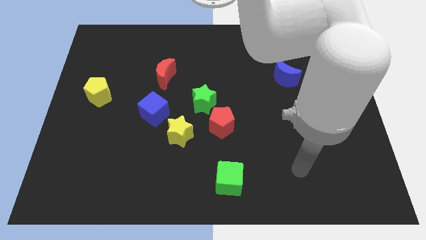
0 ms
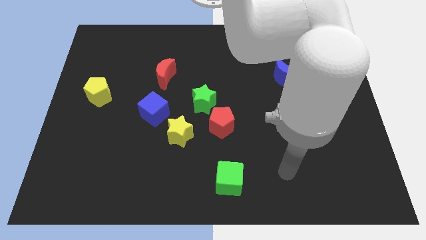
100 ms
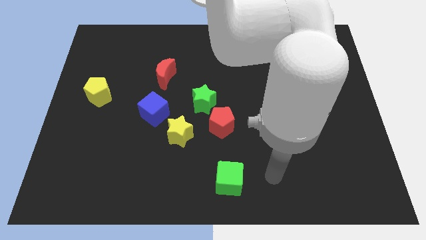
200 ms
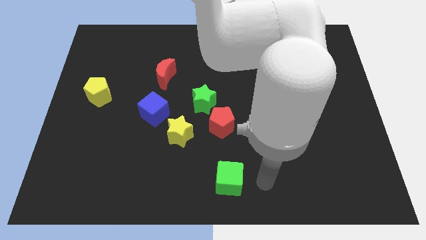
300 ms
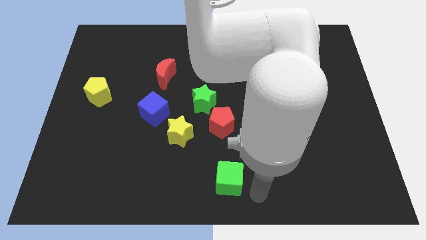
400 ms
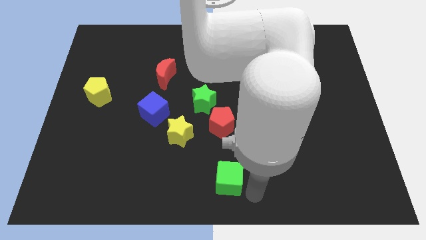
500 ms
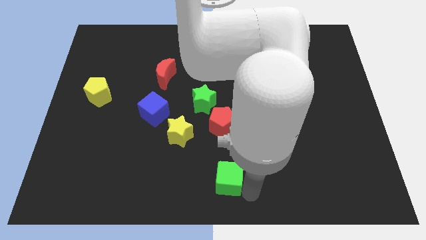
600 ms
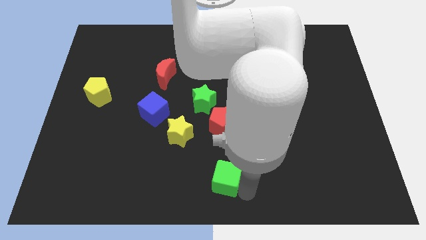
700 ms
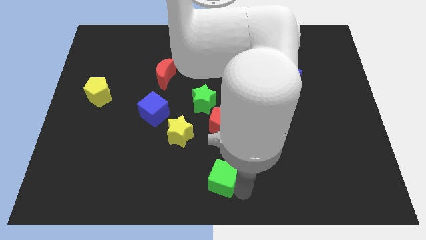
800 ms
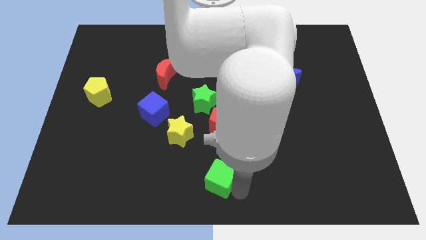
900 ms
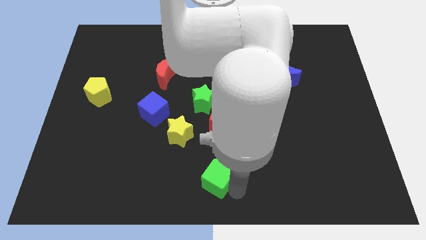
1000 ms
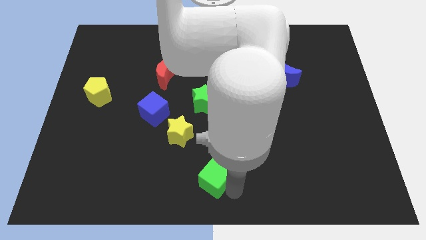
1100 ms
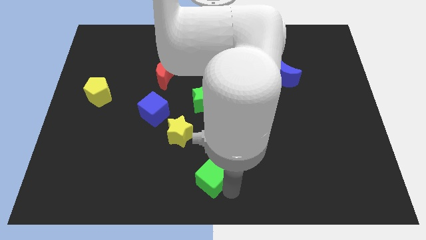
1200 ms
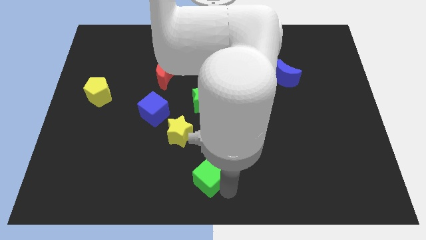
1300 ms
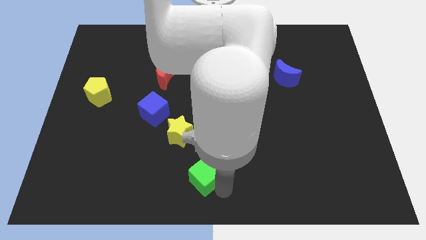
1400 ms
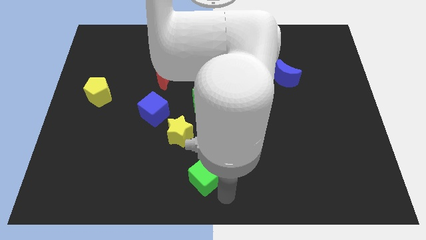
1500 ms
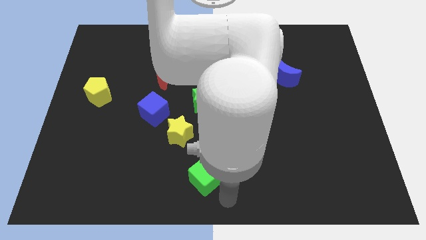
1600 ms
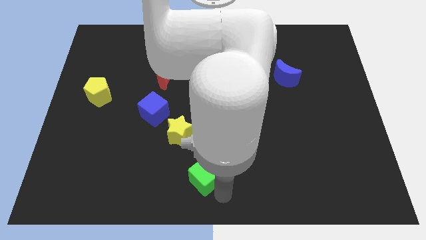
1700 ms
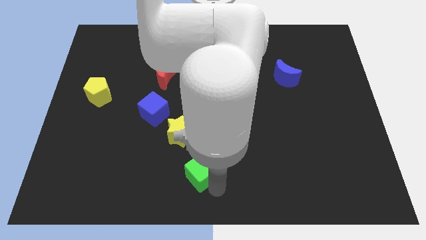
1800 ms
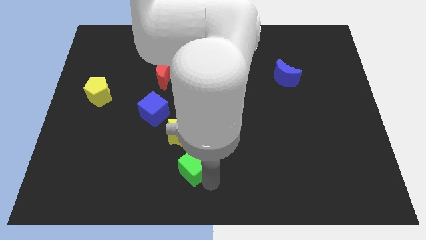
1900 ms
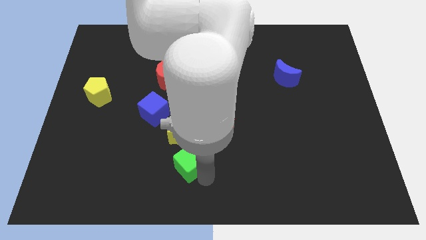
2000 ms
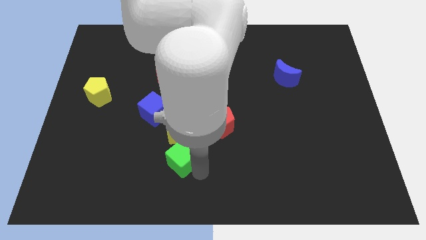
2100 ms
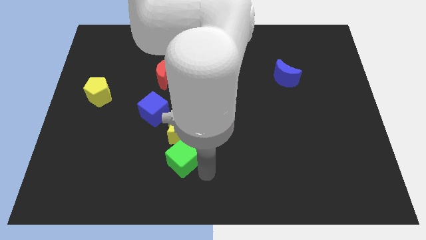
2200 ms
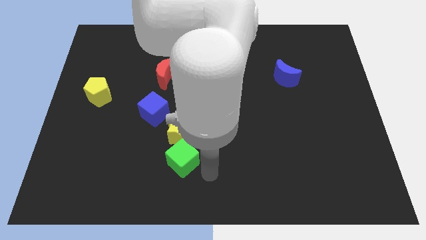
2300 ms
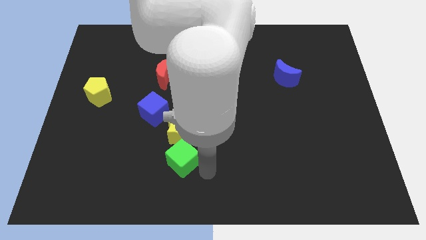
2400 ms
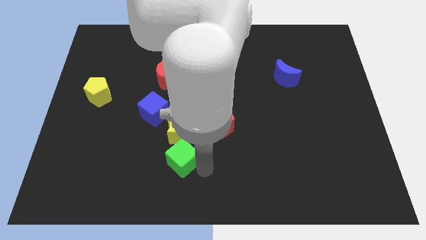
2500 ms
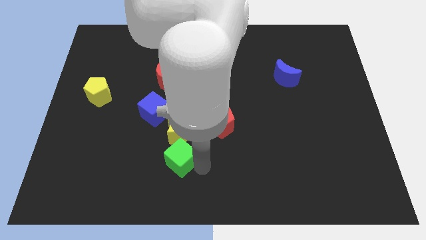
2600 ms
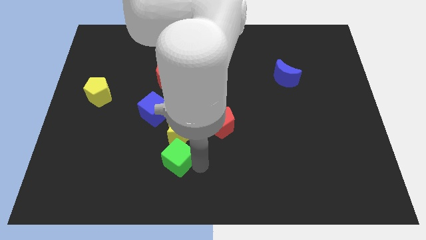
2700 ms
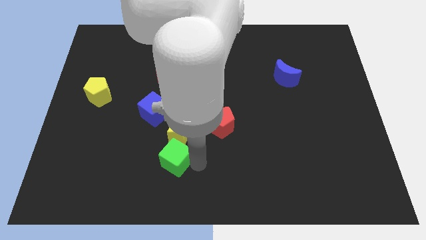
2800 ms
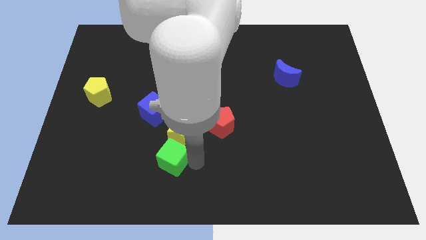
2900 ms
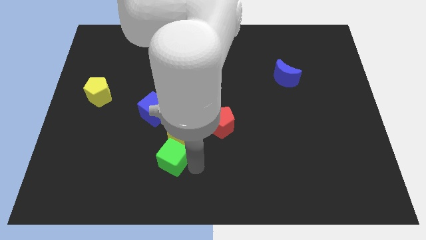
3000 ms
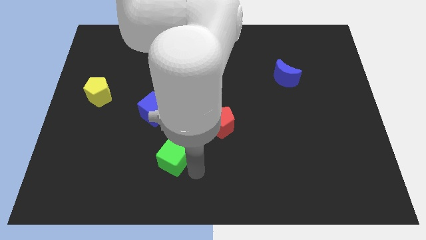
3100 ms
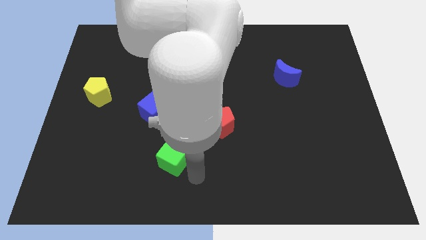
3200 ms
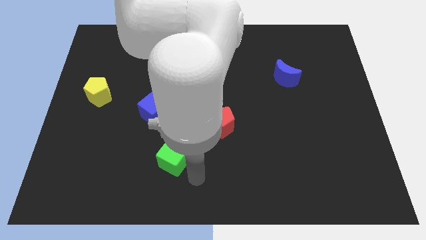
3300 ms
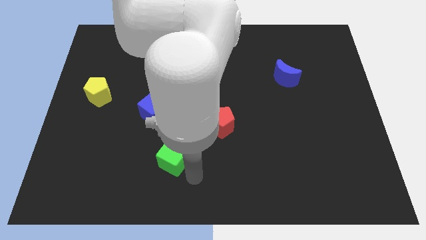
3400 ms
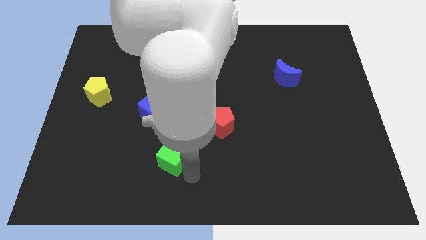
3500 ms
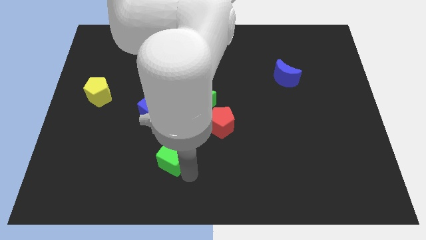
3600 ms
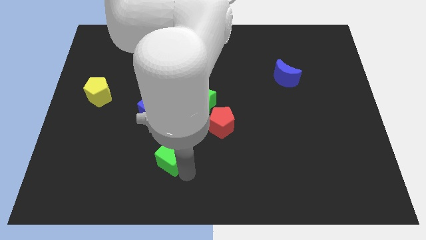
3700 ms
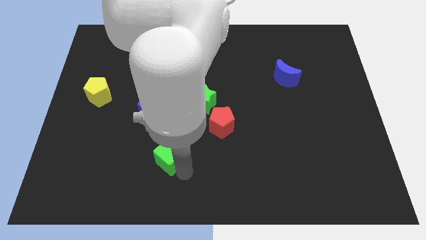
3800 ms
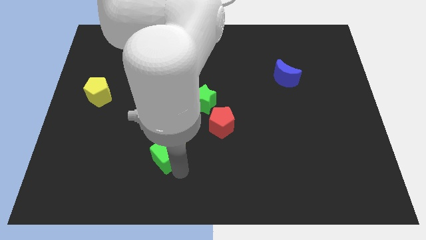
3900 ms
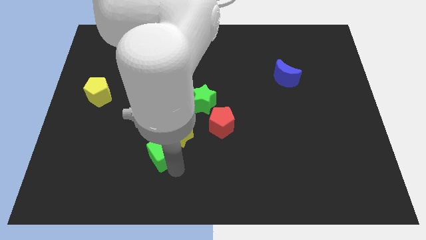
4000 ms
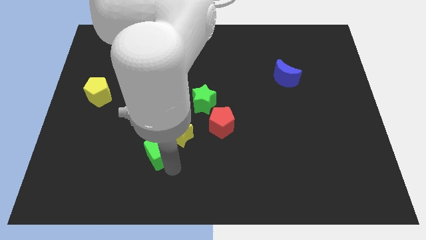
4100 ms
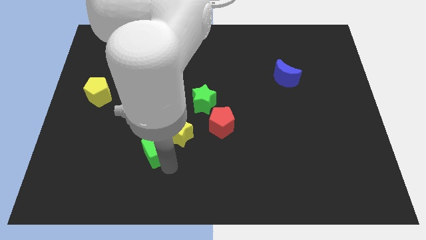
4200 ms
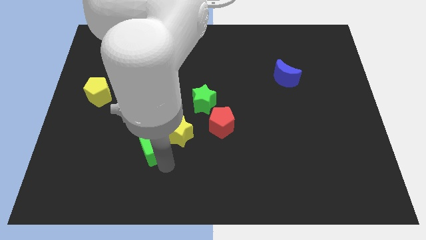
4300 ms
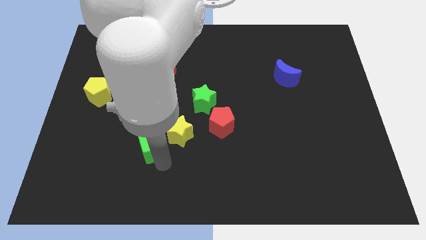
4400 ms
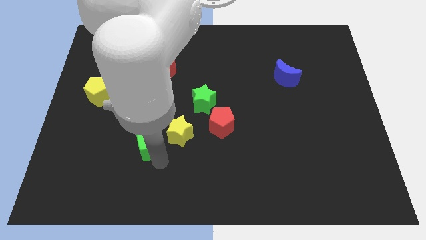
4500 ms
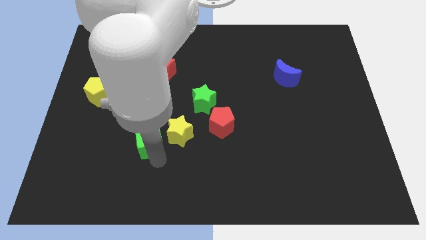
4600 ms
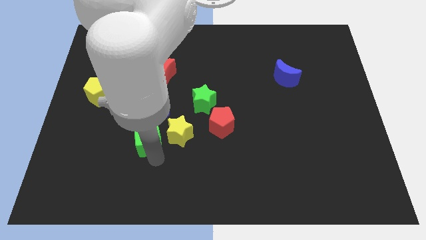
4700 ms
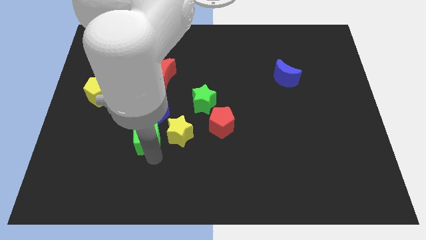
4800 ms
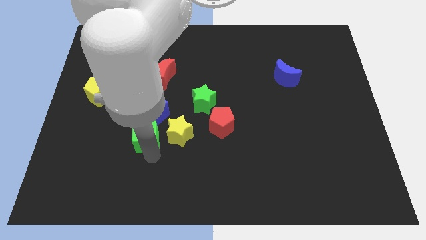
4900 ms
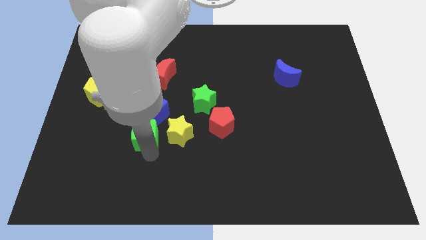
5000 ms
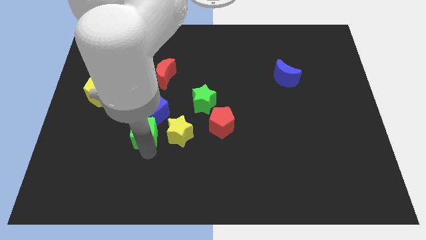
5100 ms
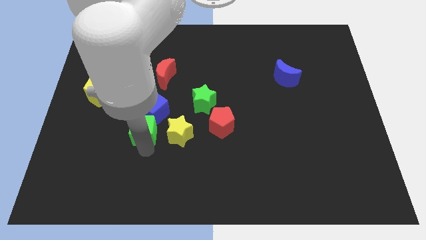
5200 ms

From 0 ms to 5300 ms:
push the green cube close to the blue cube
